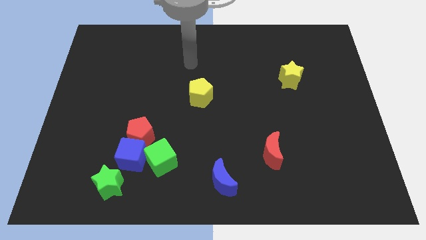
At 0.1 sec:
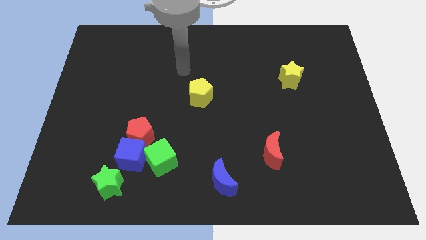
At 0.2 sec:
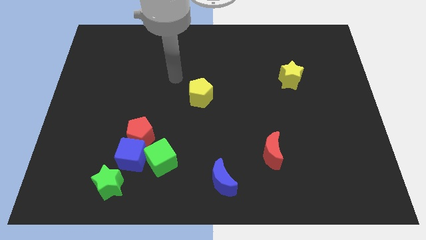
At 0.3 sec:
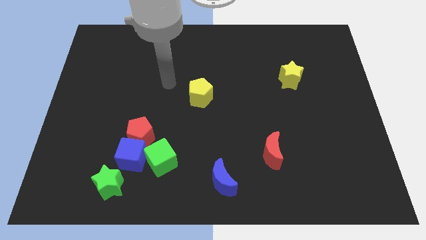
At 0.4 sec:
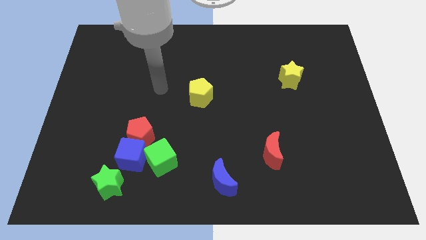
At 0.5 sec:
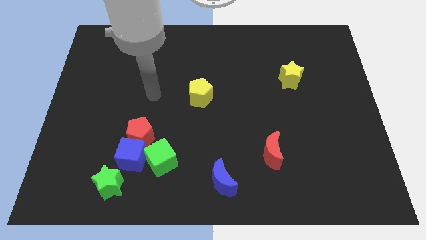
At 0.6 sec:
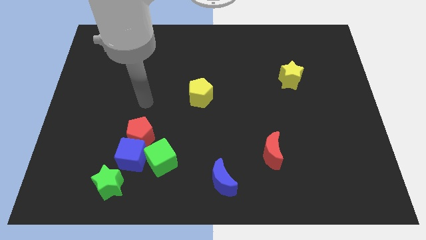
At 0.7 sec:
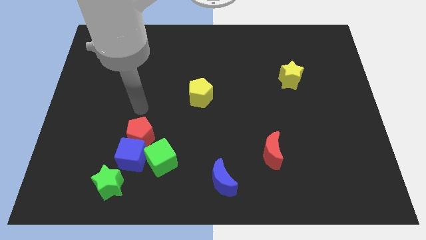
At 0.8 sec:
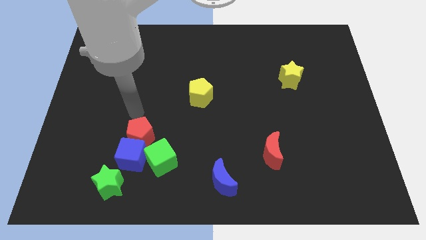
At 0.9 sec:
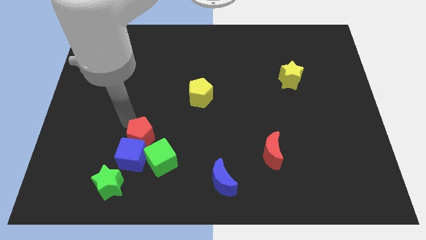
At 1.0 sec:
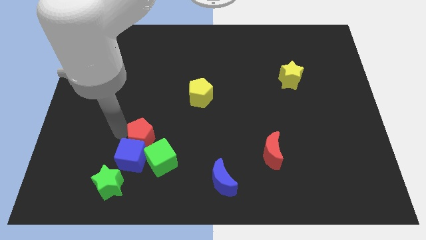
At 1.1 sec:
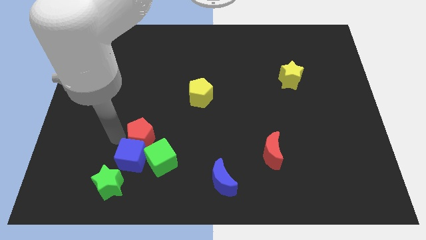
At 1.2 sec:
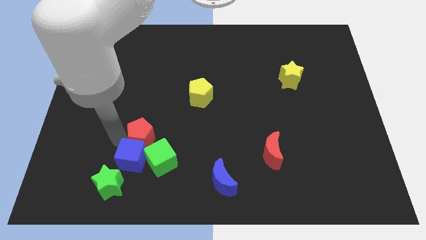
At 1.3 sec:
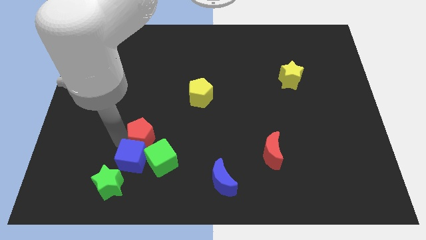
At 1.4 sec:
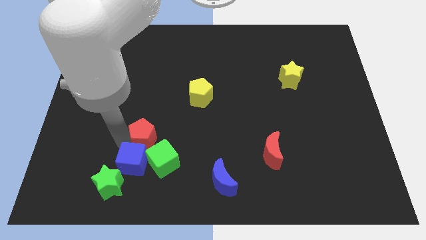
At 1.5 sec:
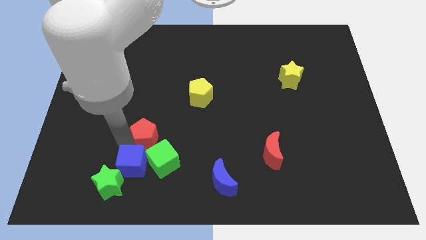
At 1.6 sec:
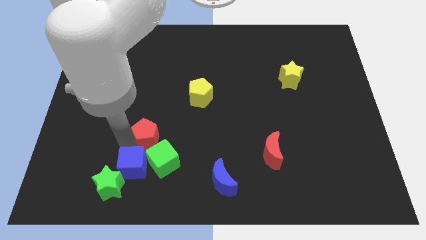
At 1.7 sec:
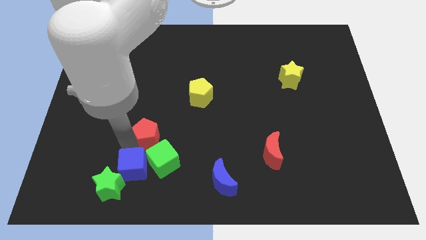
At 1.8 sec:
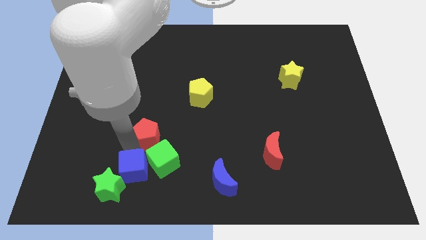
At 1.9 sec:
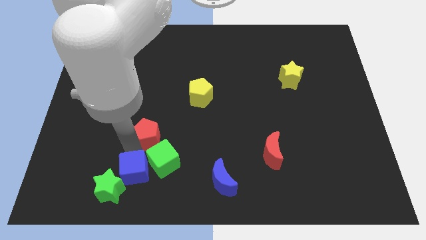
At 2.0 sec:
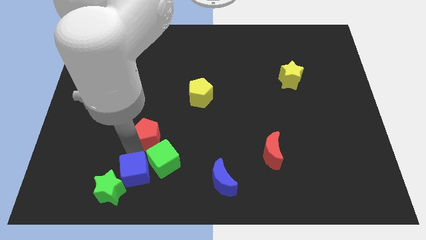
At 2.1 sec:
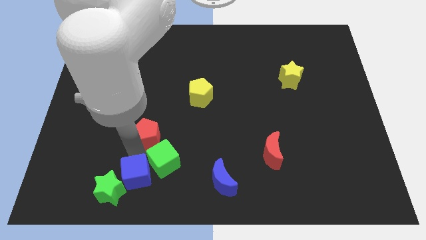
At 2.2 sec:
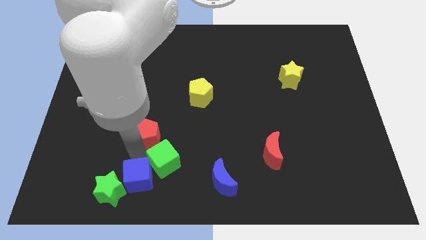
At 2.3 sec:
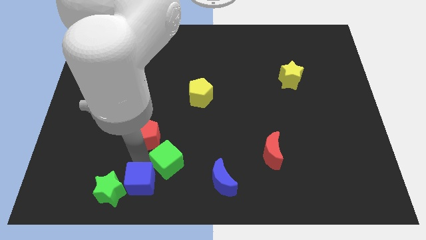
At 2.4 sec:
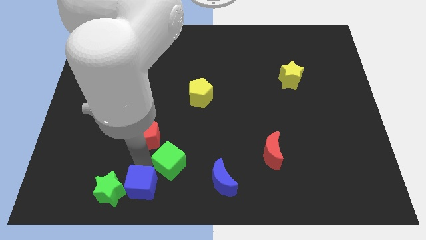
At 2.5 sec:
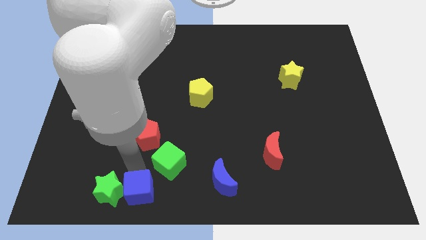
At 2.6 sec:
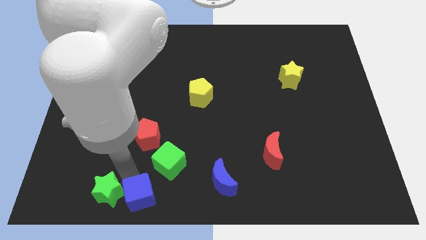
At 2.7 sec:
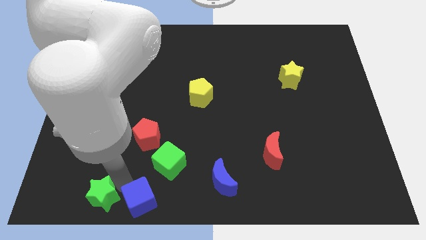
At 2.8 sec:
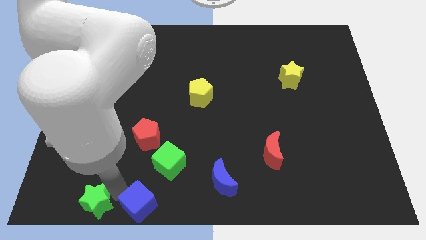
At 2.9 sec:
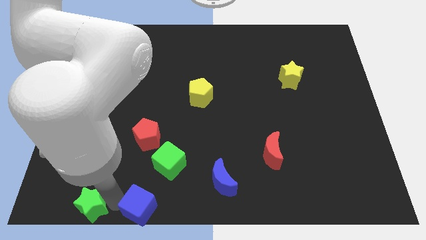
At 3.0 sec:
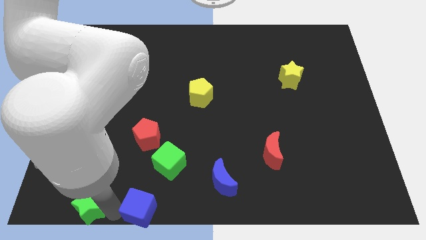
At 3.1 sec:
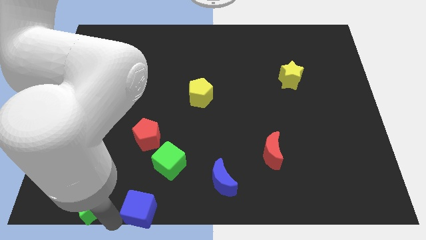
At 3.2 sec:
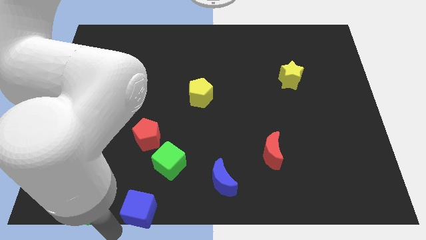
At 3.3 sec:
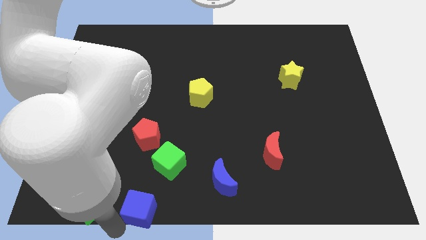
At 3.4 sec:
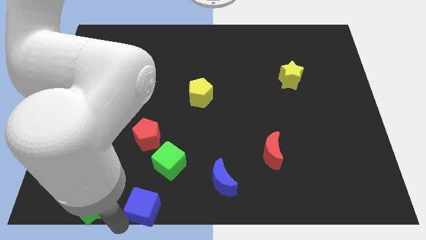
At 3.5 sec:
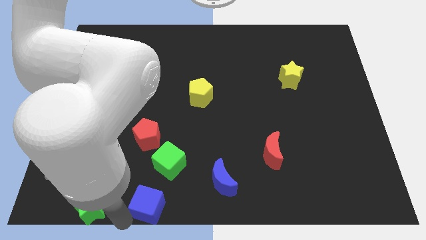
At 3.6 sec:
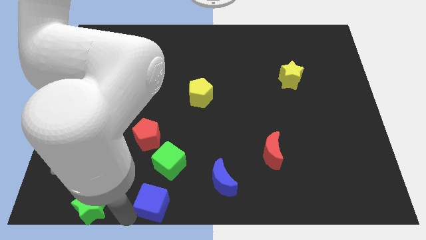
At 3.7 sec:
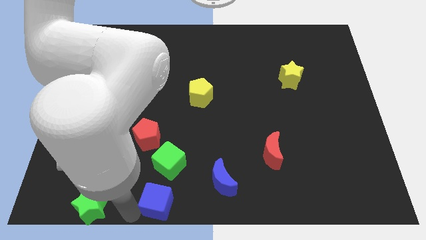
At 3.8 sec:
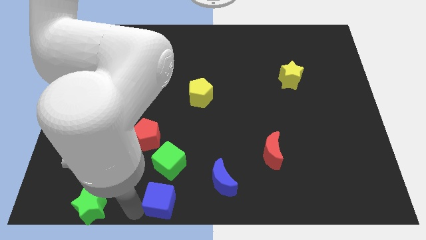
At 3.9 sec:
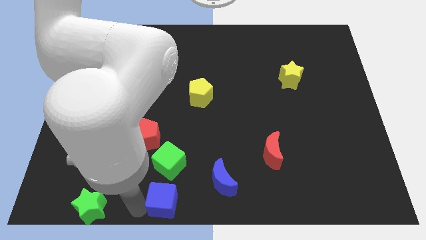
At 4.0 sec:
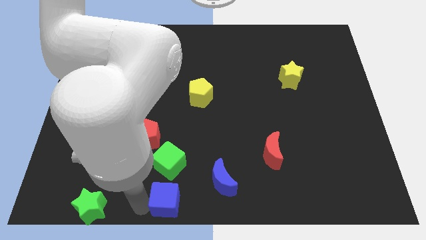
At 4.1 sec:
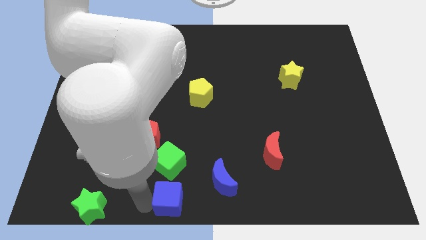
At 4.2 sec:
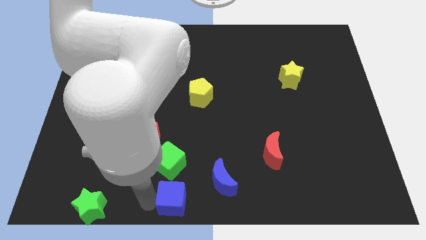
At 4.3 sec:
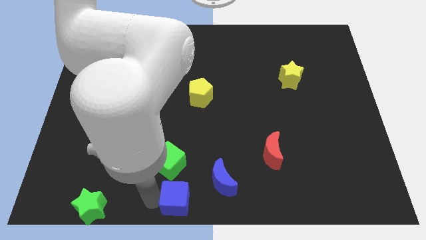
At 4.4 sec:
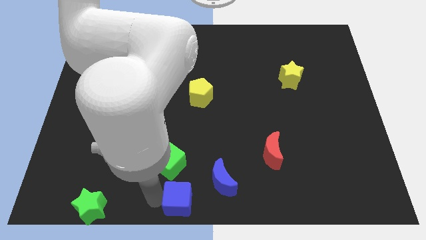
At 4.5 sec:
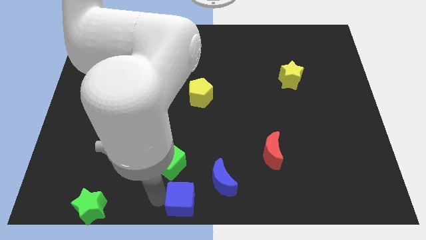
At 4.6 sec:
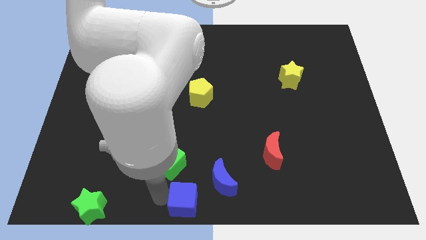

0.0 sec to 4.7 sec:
push the blue cube right a bit

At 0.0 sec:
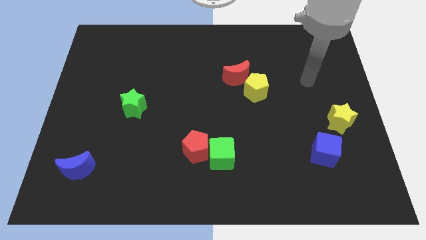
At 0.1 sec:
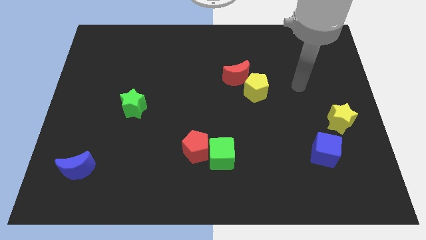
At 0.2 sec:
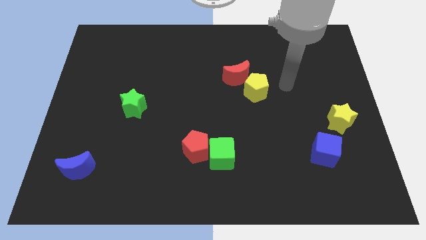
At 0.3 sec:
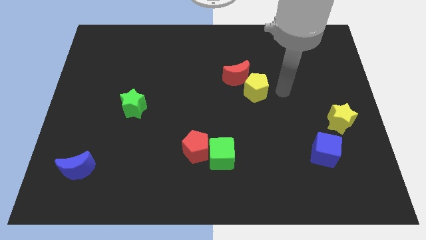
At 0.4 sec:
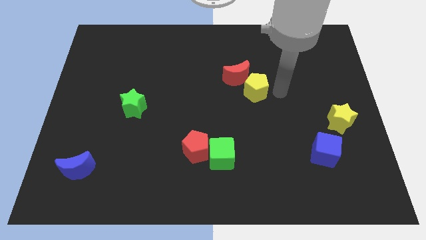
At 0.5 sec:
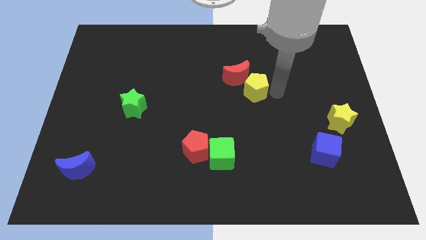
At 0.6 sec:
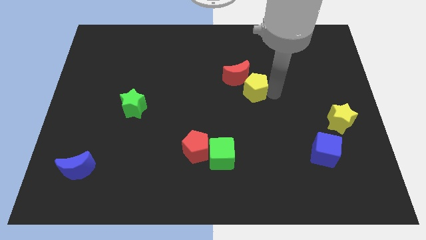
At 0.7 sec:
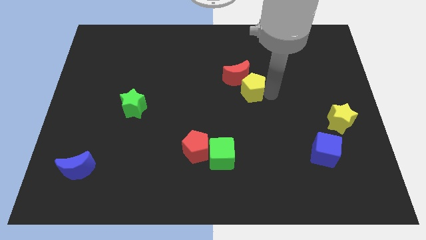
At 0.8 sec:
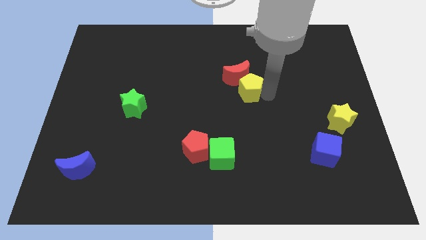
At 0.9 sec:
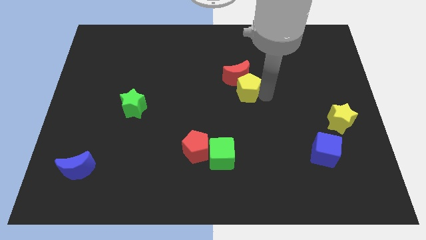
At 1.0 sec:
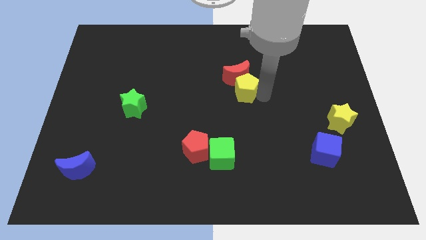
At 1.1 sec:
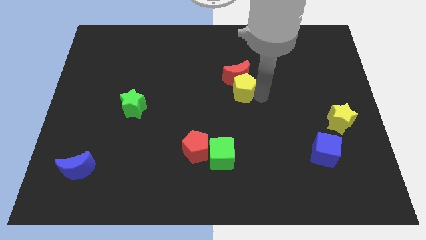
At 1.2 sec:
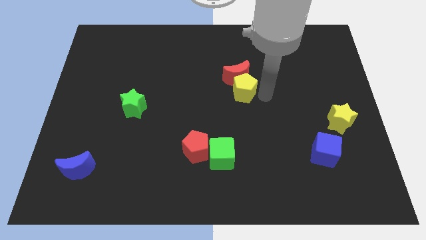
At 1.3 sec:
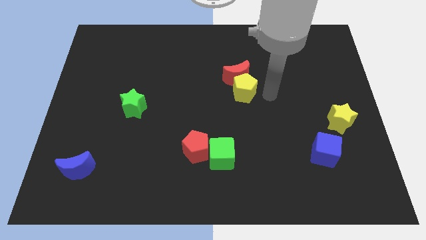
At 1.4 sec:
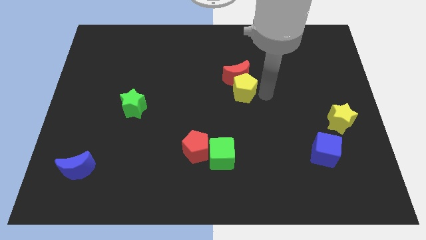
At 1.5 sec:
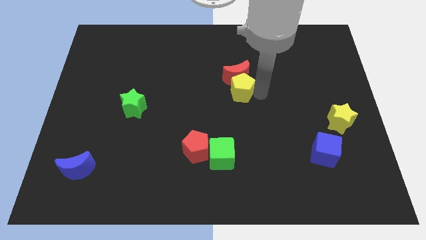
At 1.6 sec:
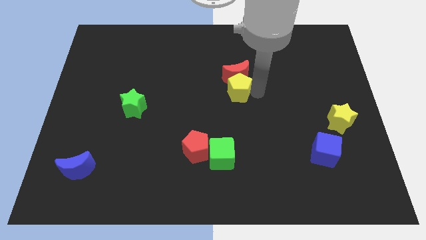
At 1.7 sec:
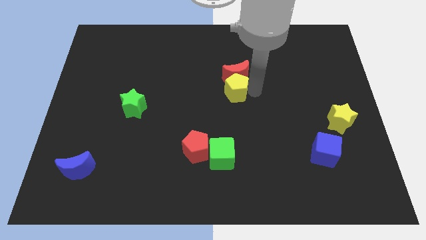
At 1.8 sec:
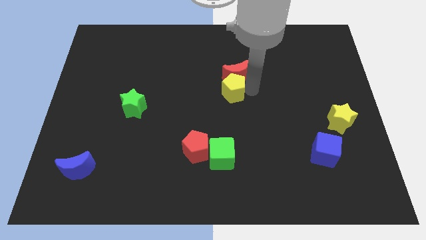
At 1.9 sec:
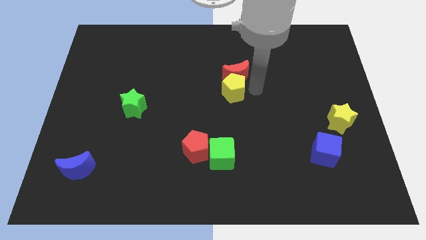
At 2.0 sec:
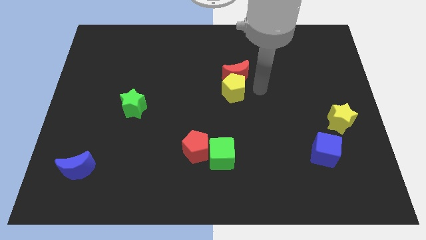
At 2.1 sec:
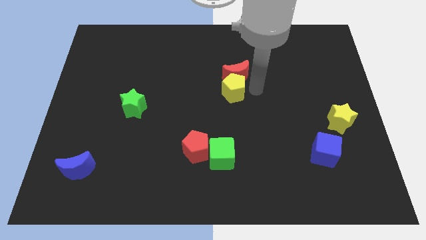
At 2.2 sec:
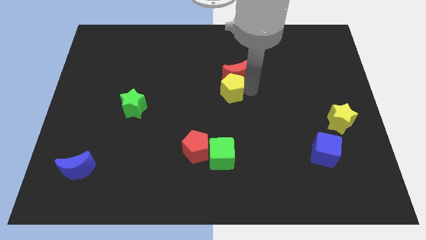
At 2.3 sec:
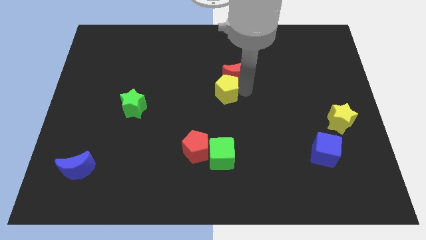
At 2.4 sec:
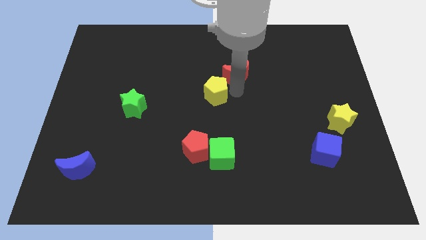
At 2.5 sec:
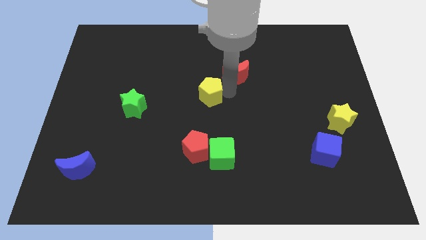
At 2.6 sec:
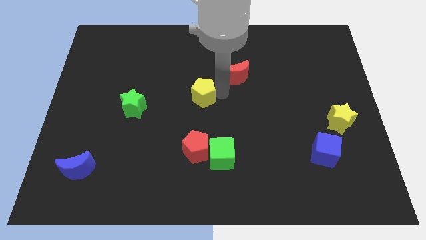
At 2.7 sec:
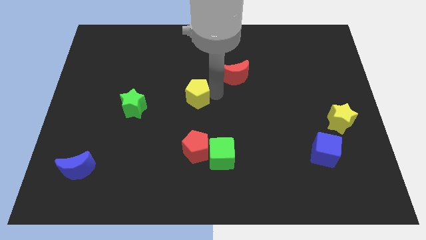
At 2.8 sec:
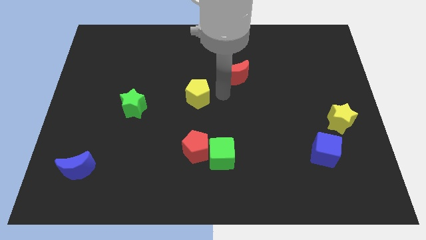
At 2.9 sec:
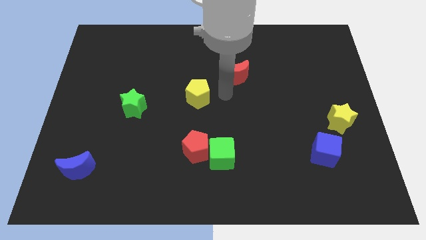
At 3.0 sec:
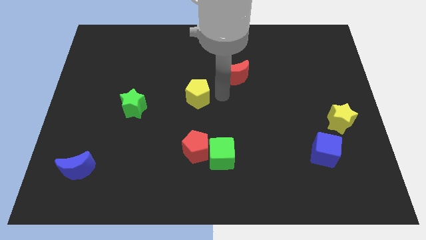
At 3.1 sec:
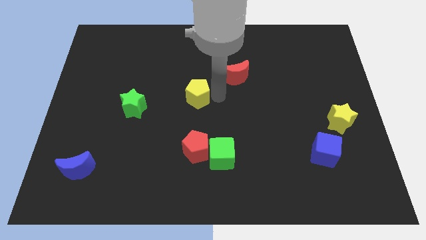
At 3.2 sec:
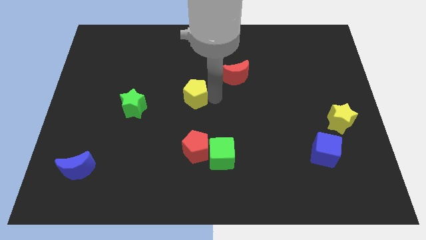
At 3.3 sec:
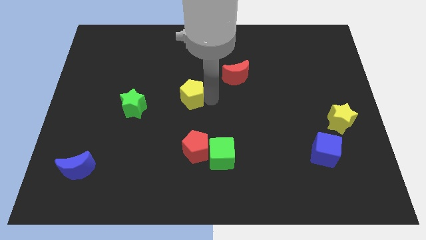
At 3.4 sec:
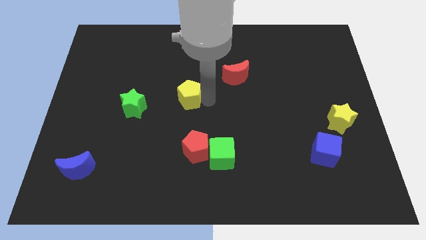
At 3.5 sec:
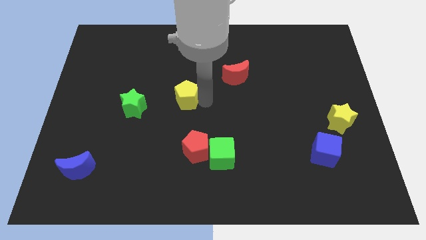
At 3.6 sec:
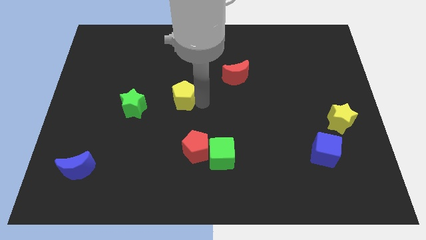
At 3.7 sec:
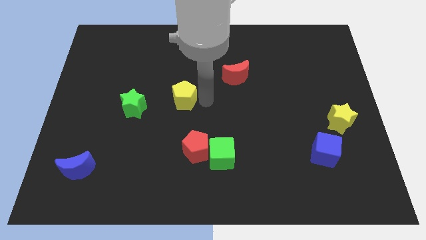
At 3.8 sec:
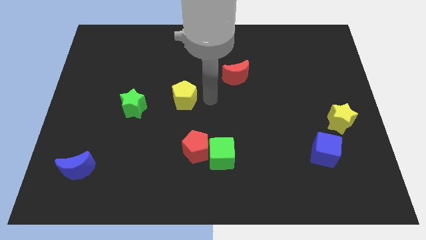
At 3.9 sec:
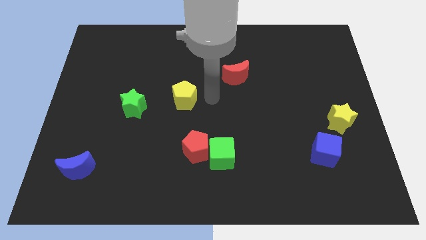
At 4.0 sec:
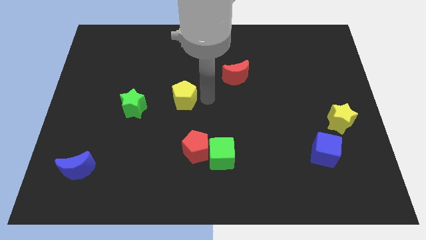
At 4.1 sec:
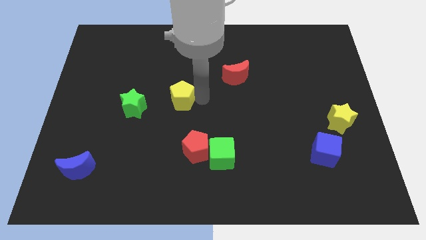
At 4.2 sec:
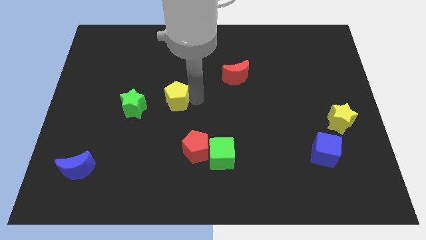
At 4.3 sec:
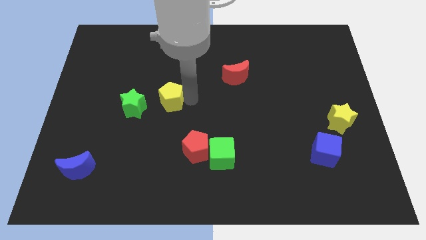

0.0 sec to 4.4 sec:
push the yellow pentagon left
